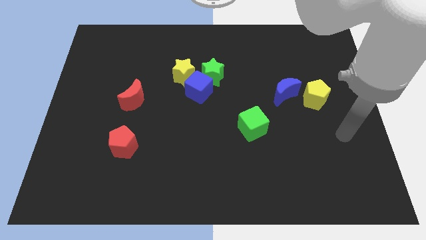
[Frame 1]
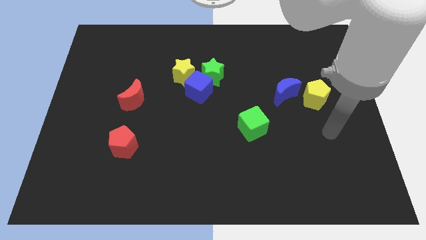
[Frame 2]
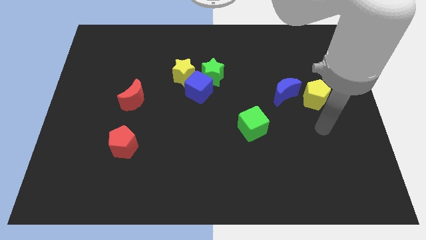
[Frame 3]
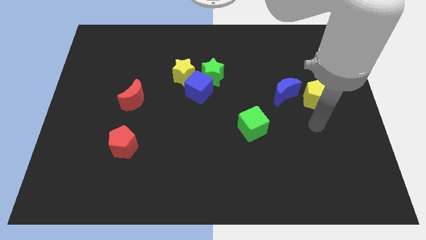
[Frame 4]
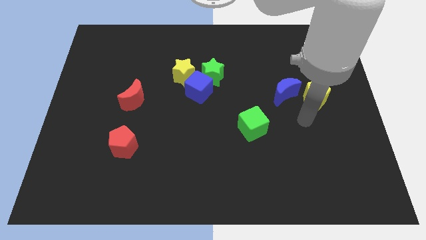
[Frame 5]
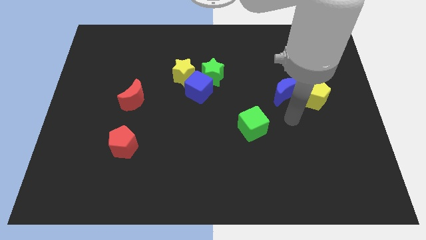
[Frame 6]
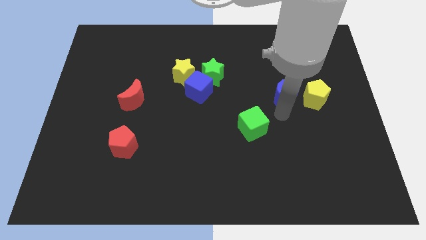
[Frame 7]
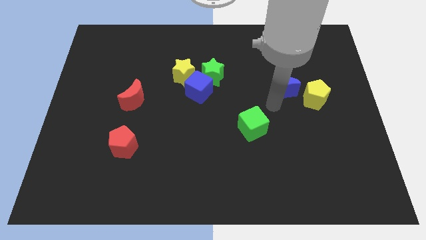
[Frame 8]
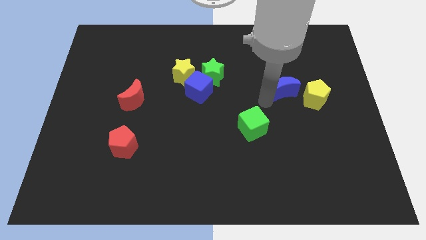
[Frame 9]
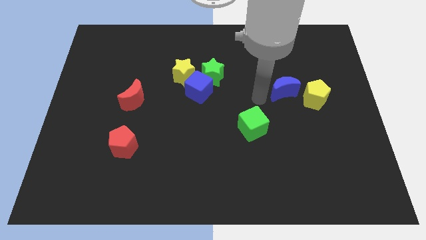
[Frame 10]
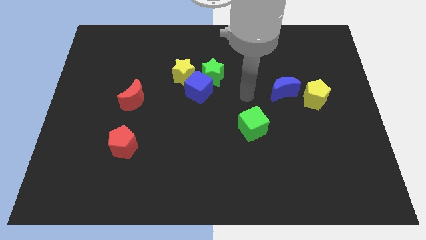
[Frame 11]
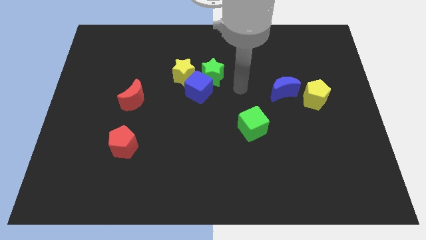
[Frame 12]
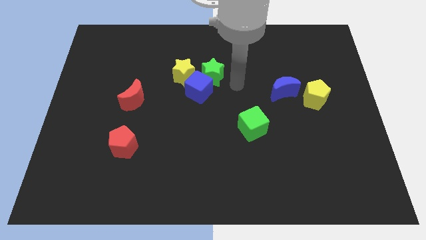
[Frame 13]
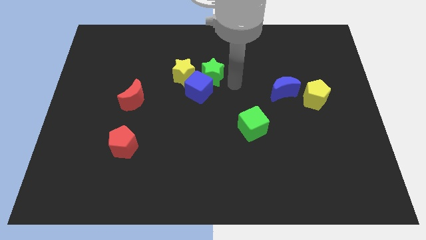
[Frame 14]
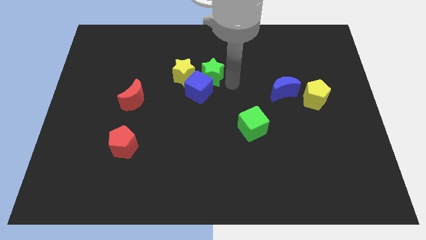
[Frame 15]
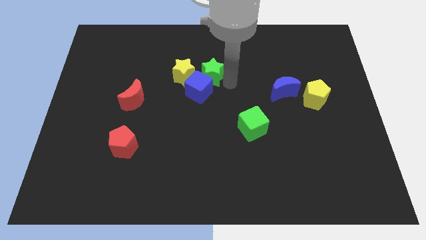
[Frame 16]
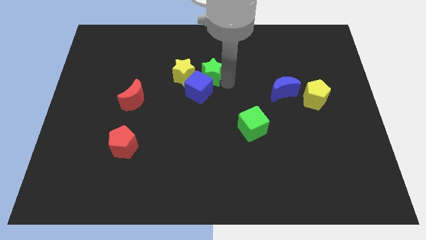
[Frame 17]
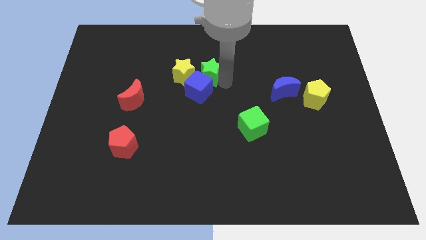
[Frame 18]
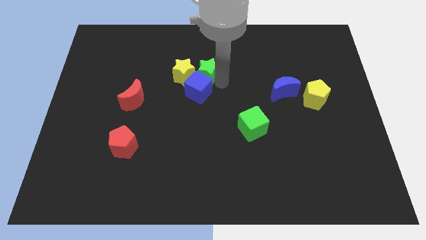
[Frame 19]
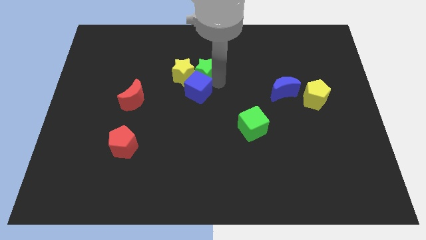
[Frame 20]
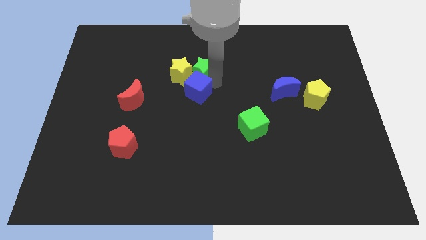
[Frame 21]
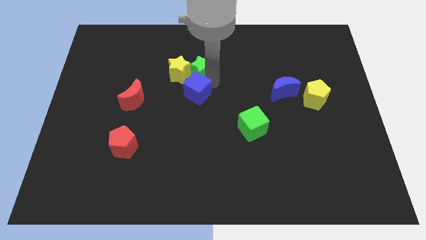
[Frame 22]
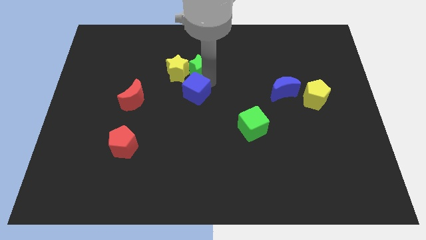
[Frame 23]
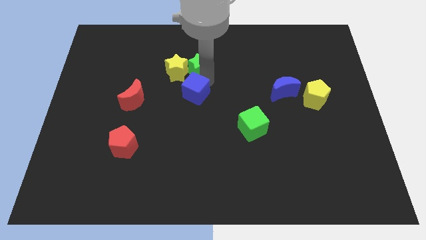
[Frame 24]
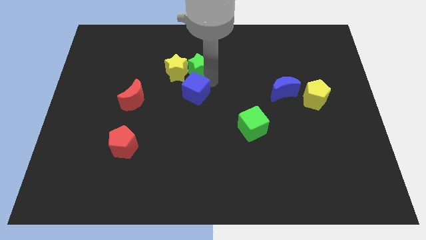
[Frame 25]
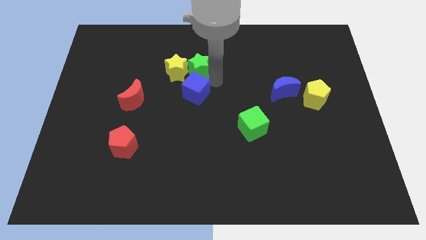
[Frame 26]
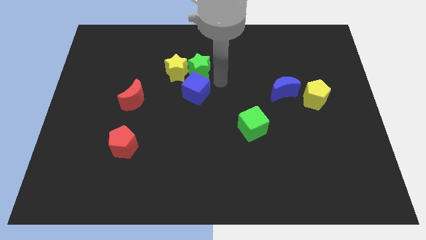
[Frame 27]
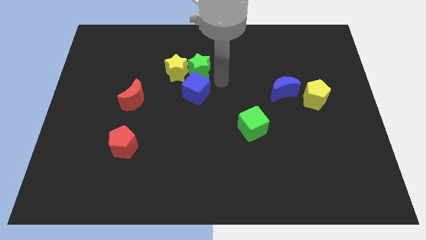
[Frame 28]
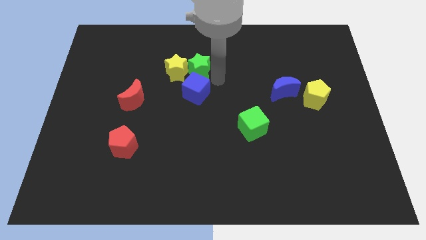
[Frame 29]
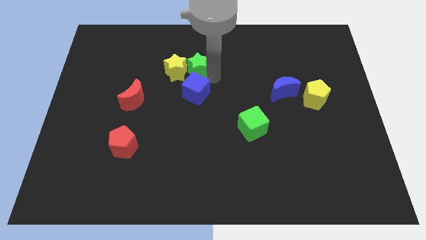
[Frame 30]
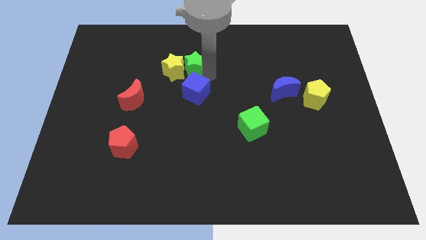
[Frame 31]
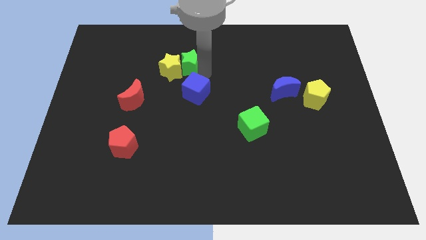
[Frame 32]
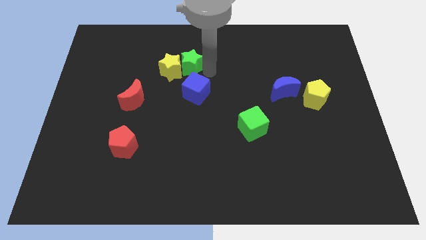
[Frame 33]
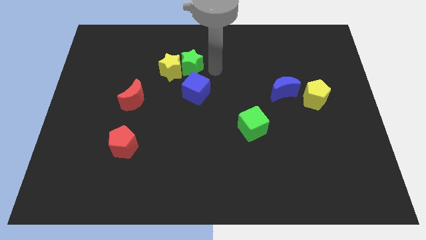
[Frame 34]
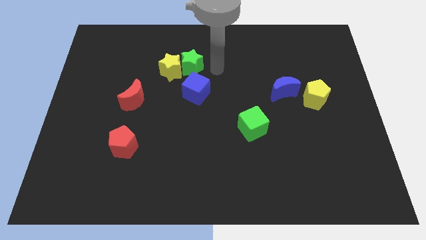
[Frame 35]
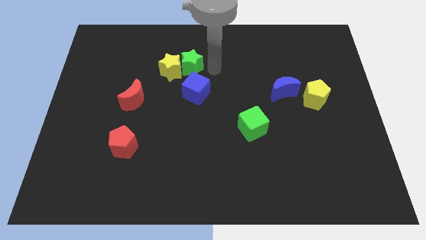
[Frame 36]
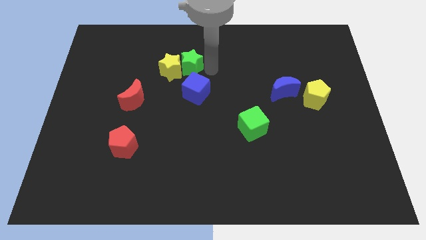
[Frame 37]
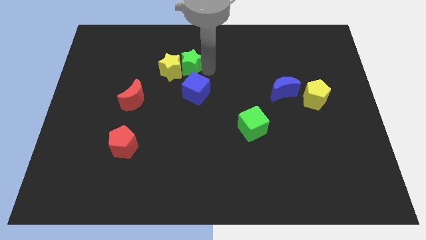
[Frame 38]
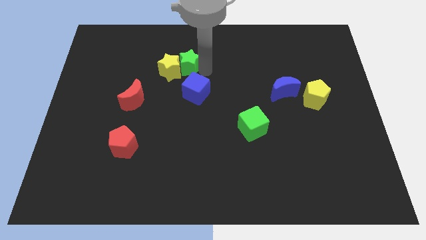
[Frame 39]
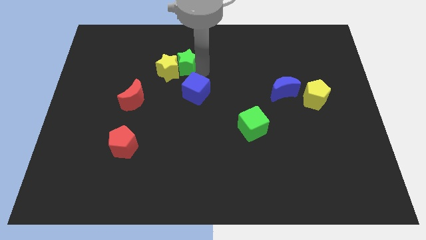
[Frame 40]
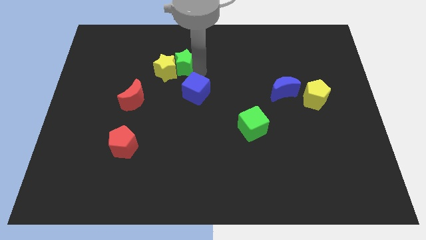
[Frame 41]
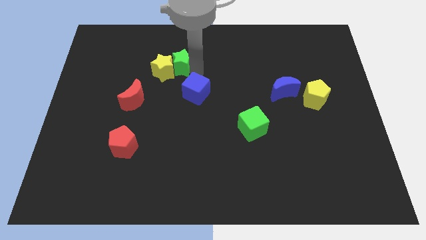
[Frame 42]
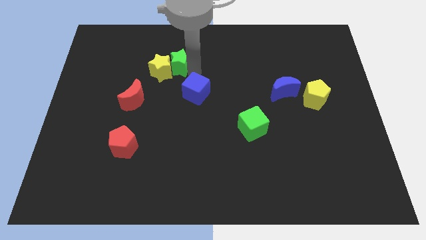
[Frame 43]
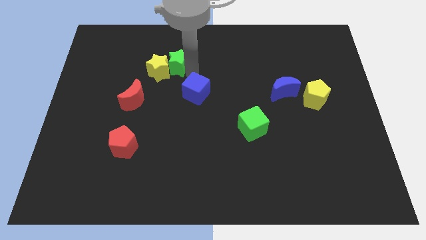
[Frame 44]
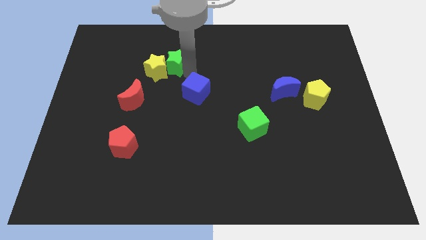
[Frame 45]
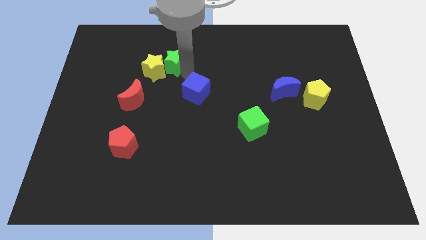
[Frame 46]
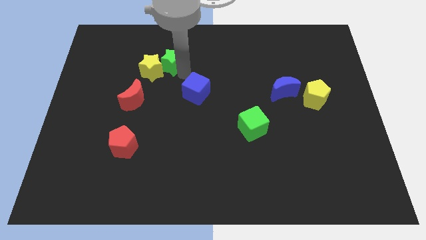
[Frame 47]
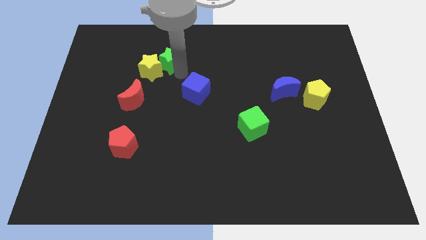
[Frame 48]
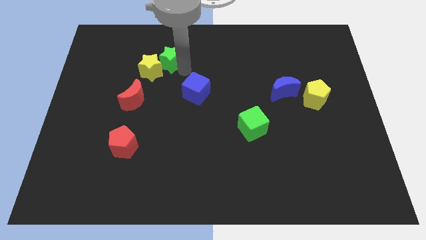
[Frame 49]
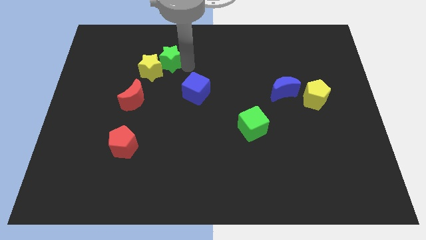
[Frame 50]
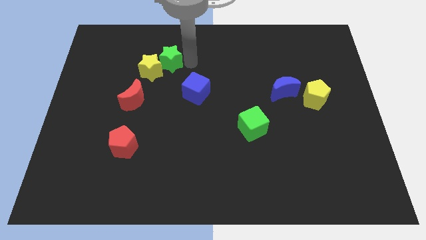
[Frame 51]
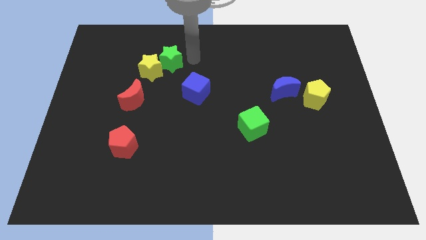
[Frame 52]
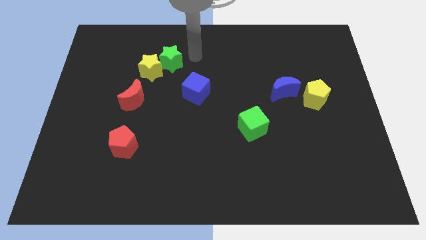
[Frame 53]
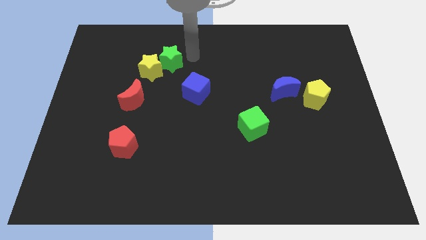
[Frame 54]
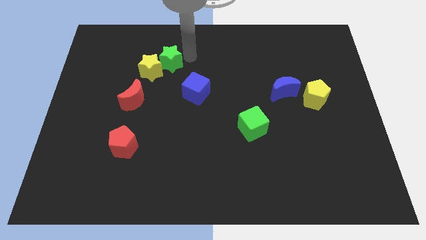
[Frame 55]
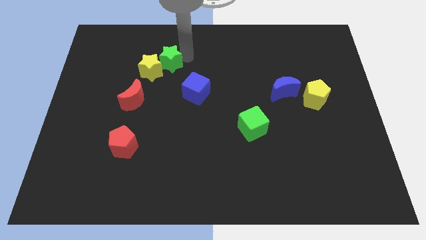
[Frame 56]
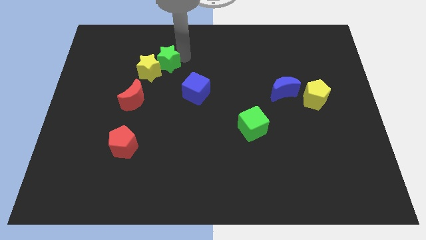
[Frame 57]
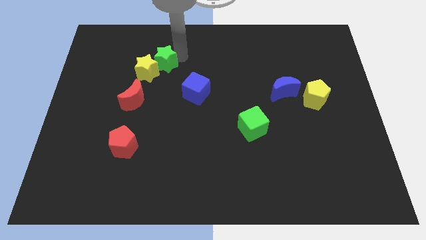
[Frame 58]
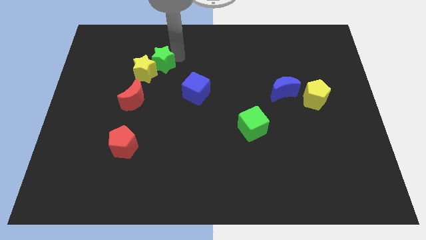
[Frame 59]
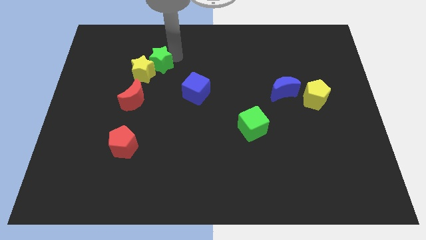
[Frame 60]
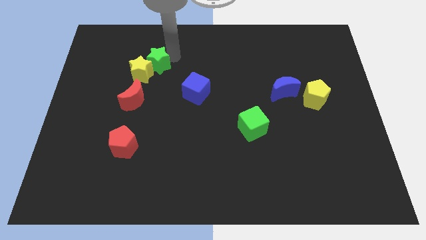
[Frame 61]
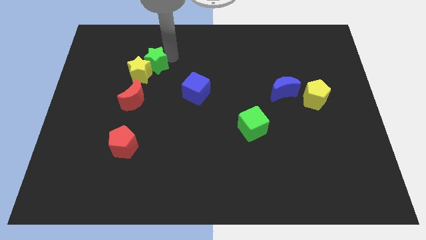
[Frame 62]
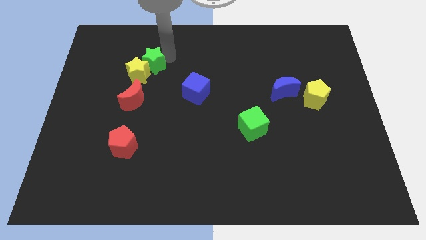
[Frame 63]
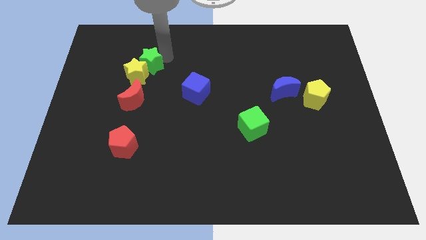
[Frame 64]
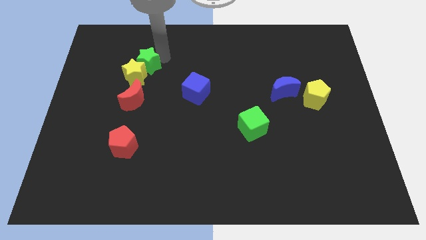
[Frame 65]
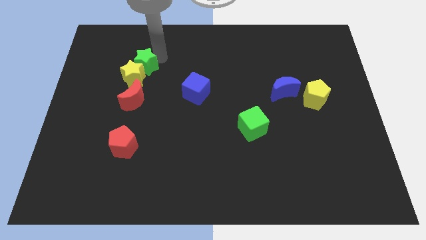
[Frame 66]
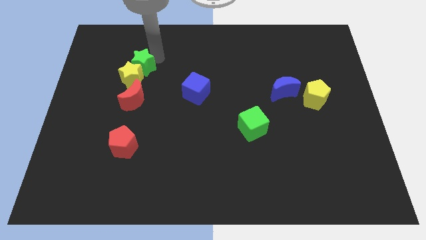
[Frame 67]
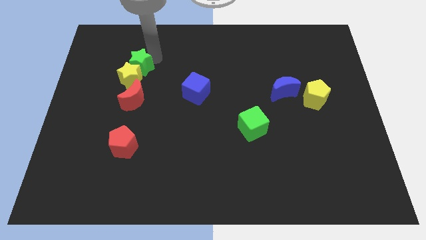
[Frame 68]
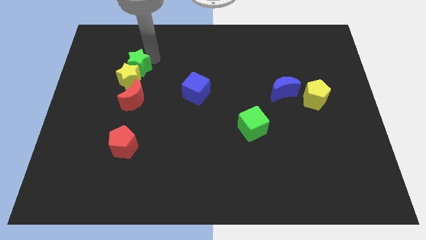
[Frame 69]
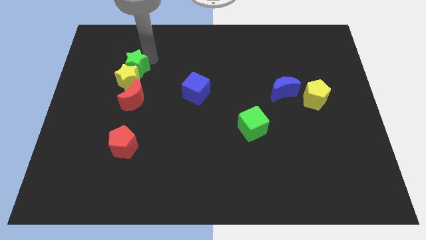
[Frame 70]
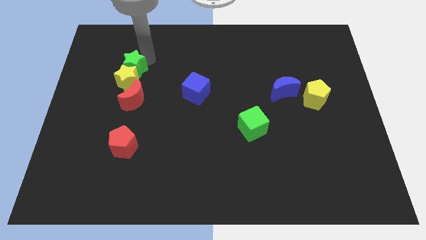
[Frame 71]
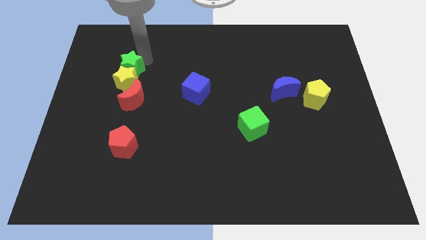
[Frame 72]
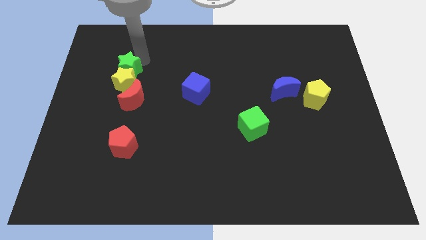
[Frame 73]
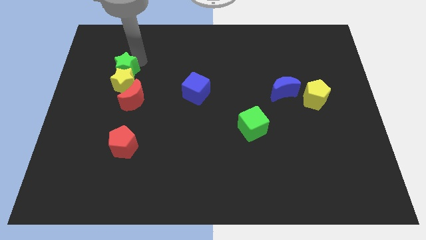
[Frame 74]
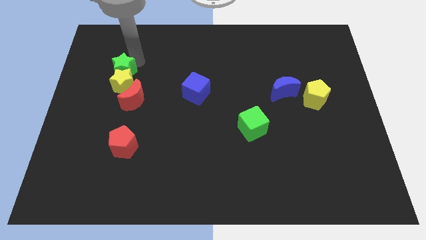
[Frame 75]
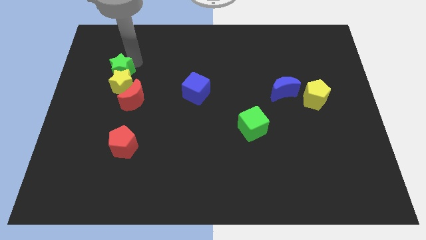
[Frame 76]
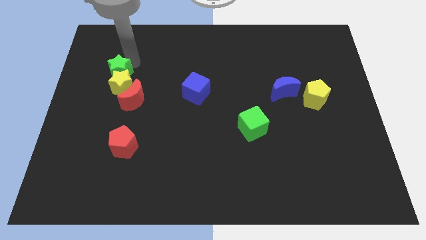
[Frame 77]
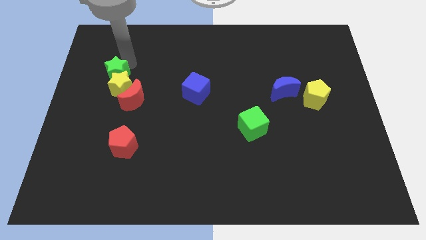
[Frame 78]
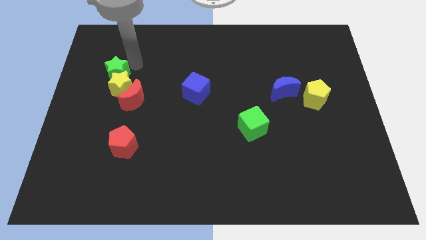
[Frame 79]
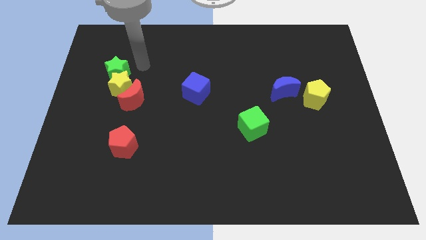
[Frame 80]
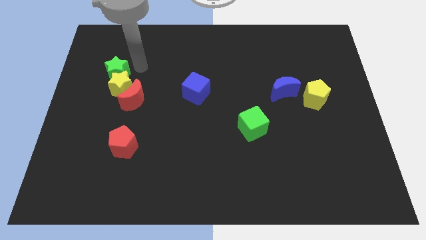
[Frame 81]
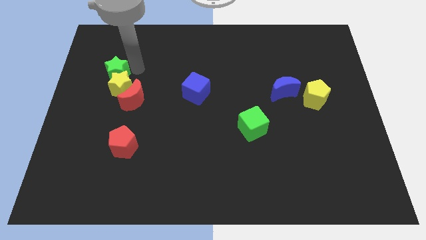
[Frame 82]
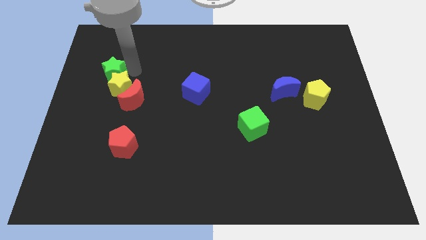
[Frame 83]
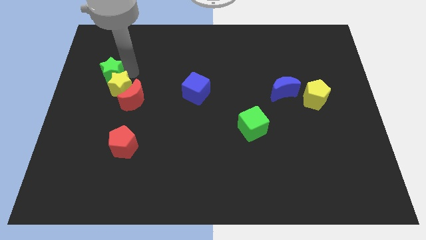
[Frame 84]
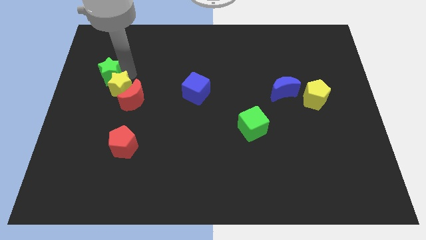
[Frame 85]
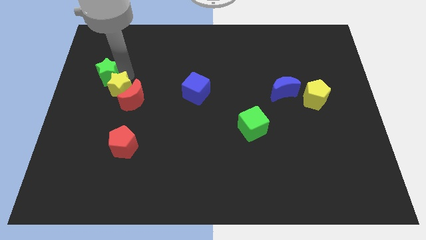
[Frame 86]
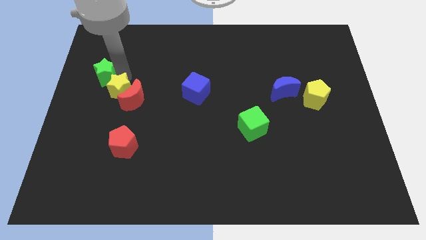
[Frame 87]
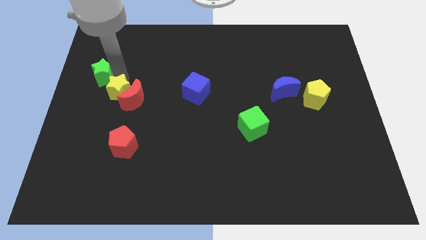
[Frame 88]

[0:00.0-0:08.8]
push the green star to the left side of the board
